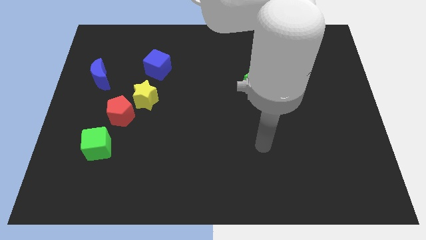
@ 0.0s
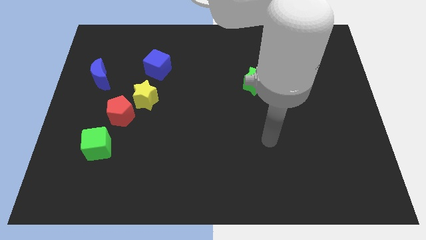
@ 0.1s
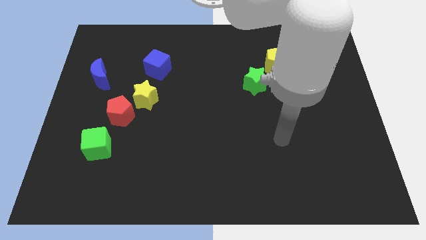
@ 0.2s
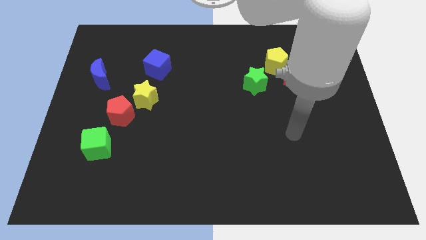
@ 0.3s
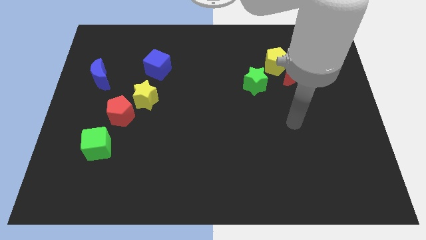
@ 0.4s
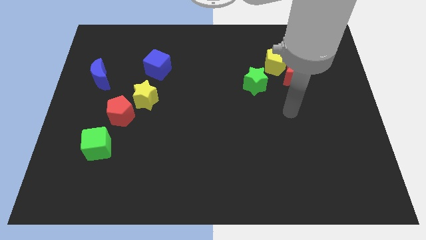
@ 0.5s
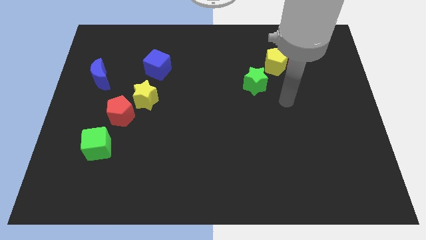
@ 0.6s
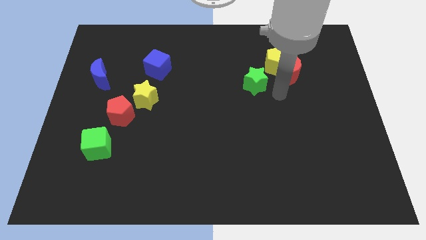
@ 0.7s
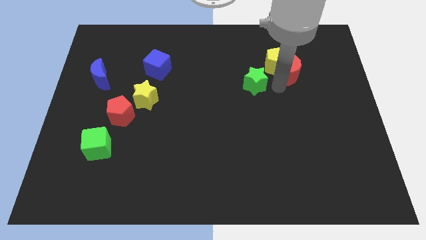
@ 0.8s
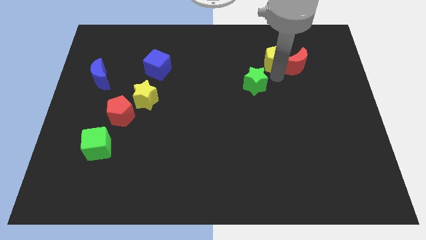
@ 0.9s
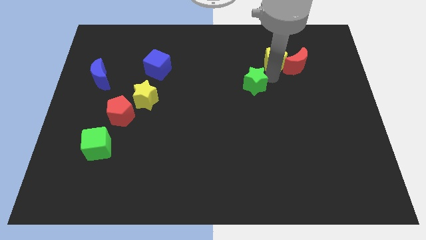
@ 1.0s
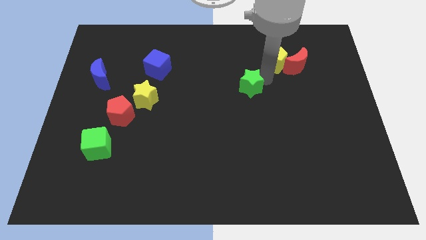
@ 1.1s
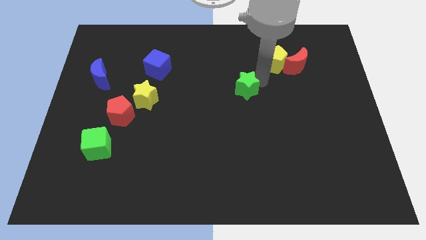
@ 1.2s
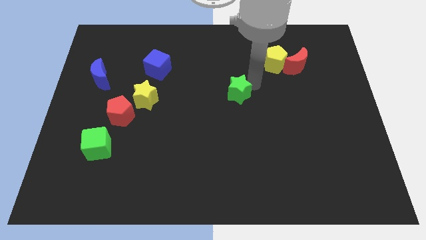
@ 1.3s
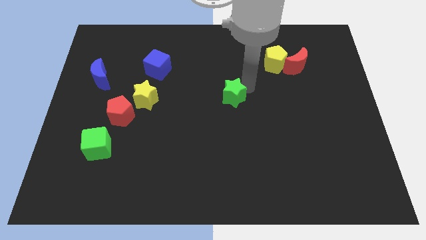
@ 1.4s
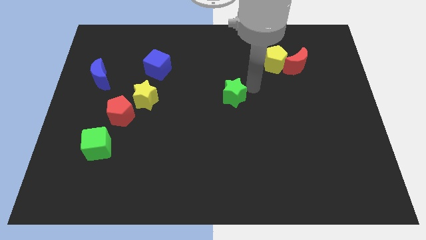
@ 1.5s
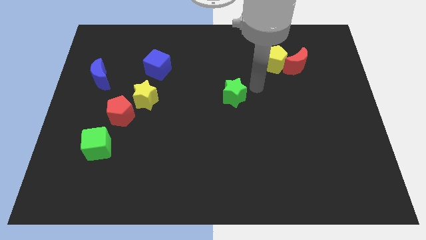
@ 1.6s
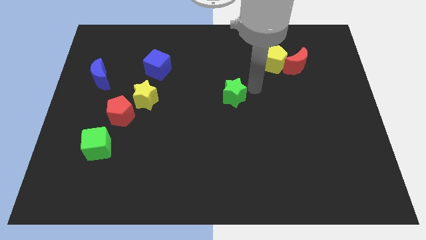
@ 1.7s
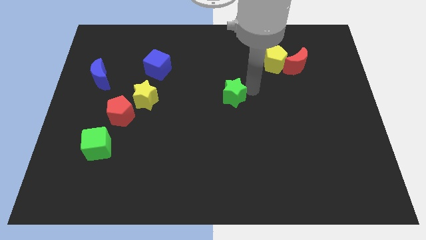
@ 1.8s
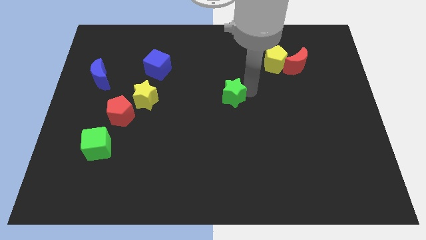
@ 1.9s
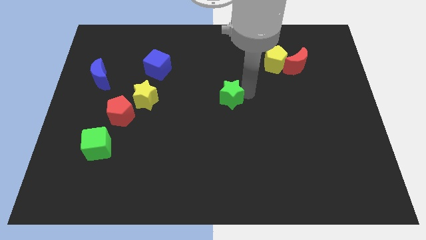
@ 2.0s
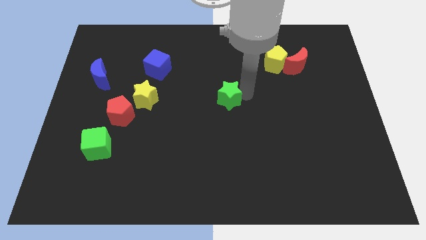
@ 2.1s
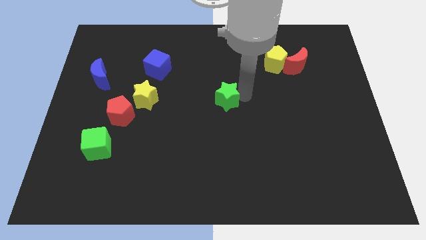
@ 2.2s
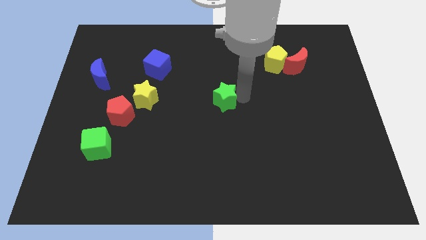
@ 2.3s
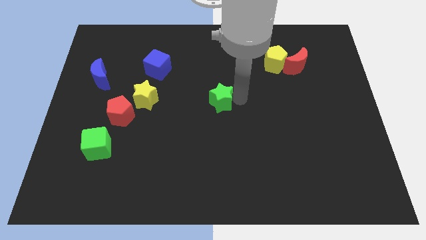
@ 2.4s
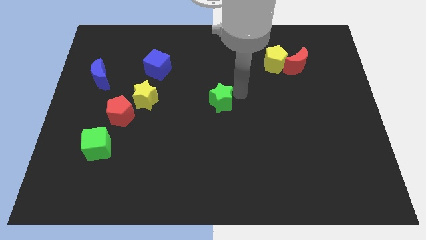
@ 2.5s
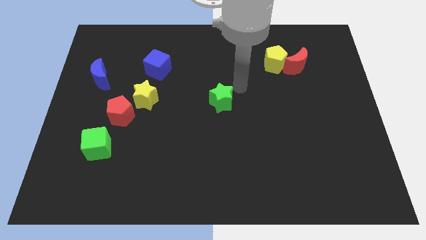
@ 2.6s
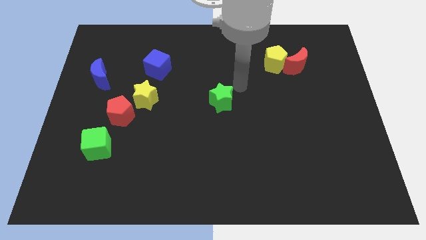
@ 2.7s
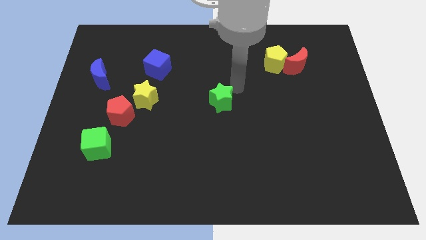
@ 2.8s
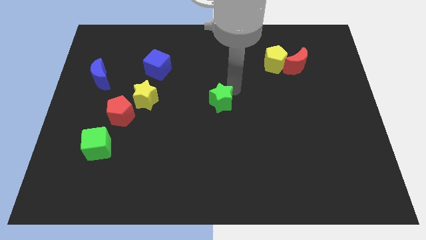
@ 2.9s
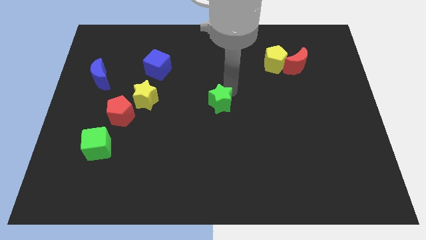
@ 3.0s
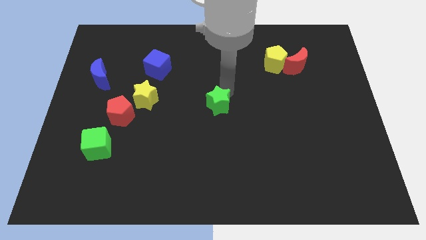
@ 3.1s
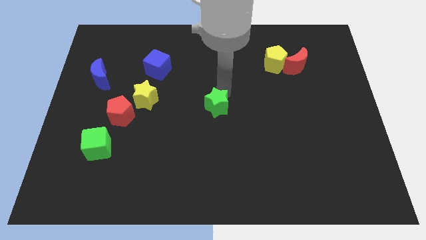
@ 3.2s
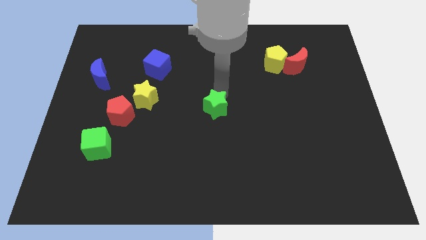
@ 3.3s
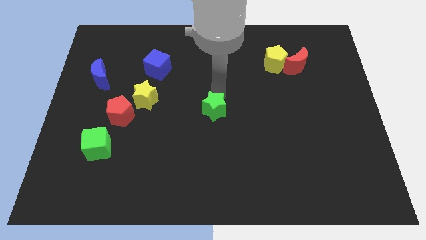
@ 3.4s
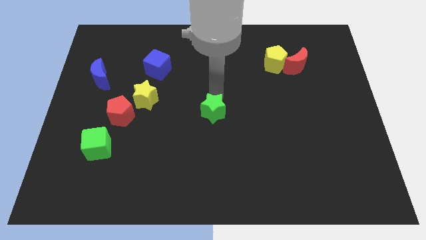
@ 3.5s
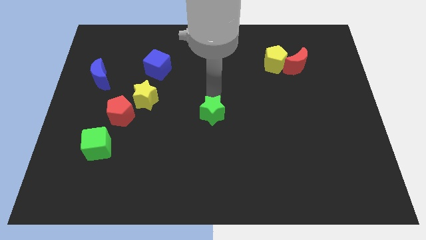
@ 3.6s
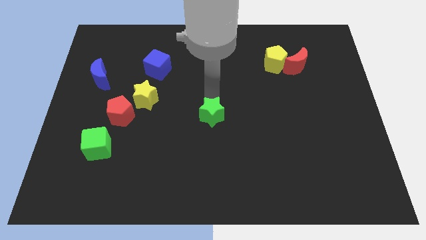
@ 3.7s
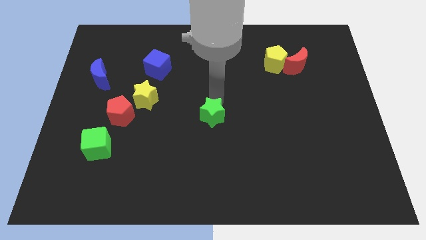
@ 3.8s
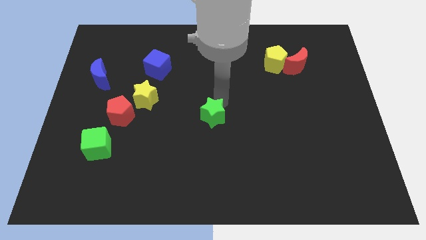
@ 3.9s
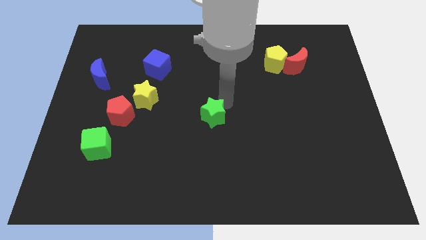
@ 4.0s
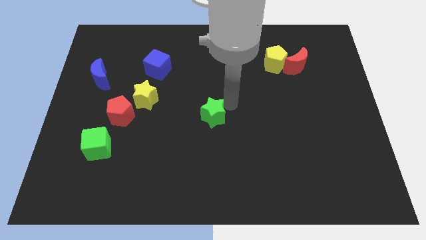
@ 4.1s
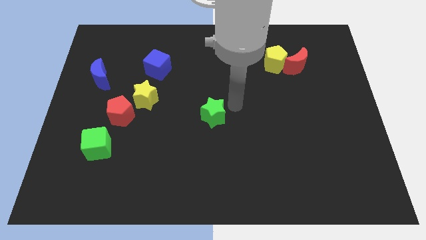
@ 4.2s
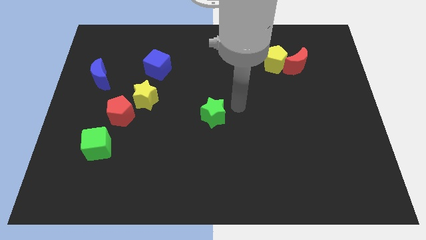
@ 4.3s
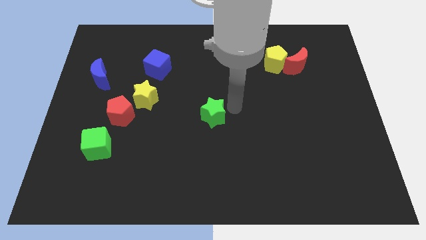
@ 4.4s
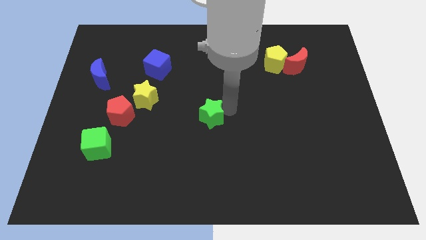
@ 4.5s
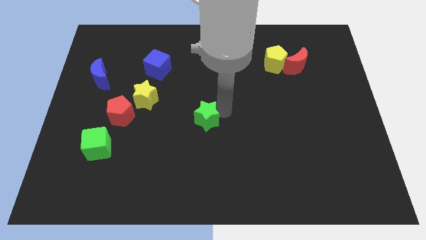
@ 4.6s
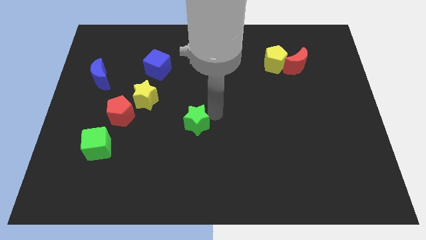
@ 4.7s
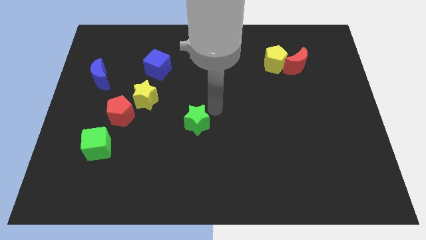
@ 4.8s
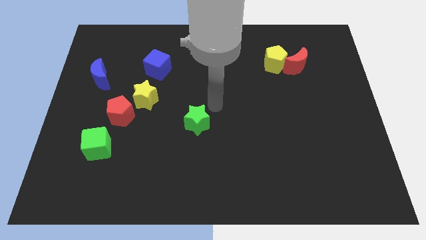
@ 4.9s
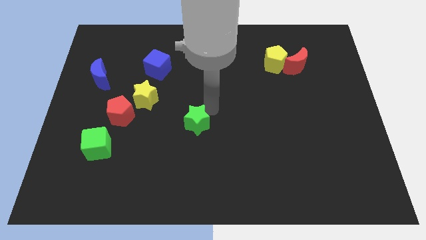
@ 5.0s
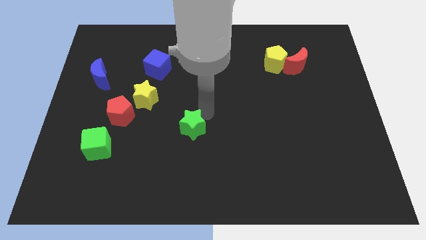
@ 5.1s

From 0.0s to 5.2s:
move the green star downwards and to the left
